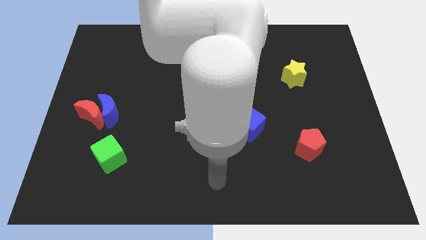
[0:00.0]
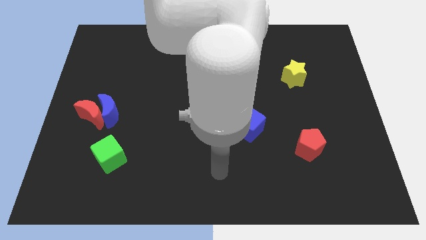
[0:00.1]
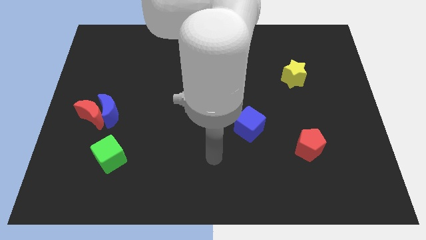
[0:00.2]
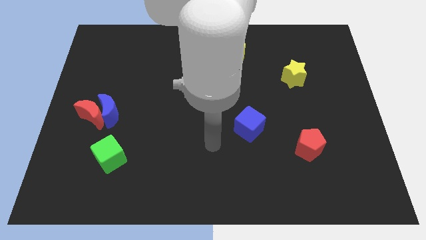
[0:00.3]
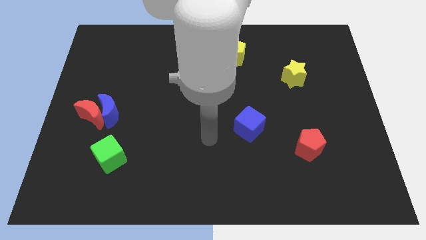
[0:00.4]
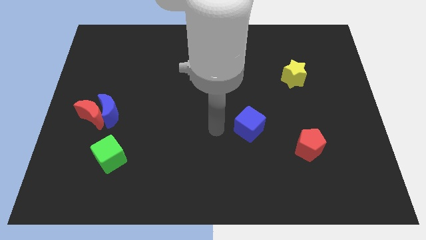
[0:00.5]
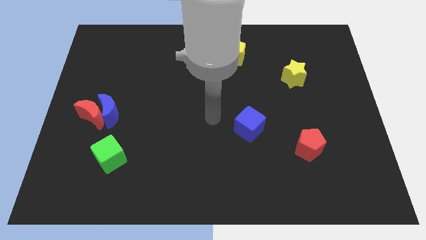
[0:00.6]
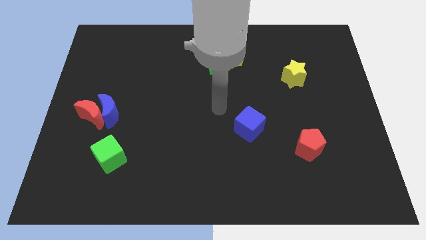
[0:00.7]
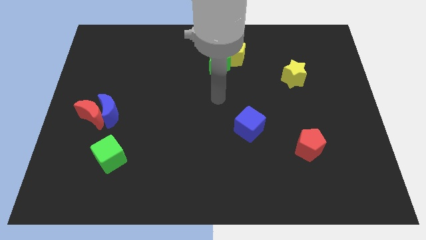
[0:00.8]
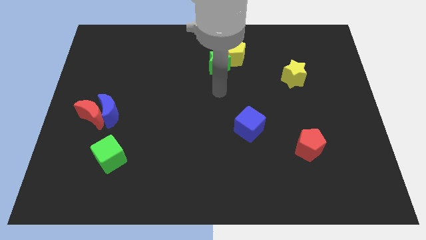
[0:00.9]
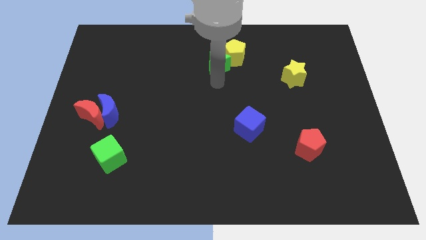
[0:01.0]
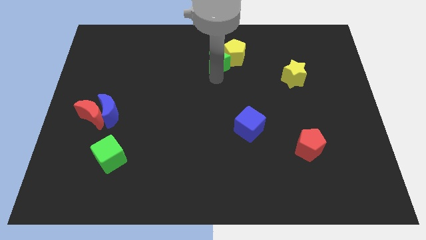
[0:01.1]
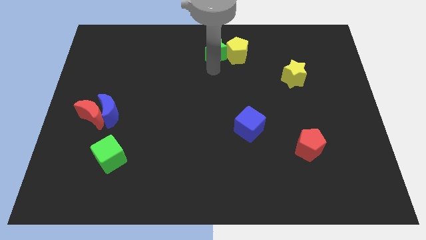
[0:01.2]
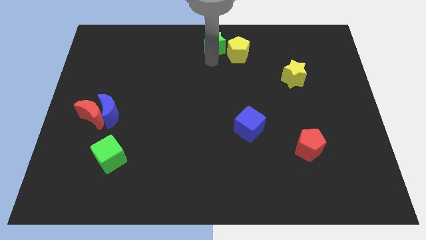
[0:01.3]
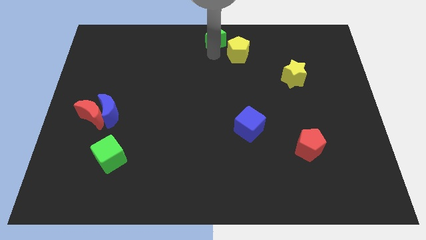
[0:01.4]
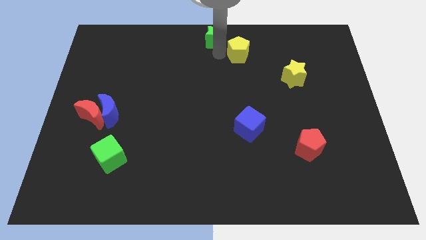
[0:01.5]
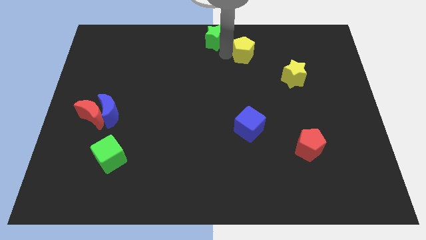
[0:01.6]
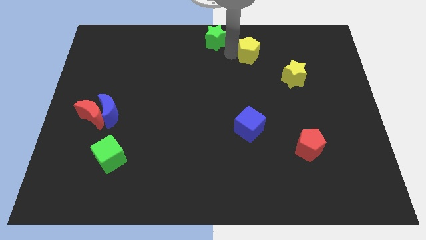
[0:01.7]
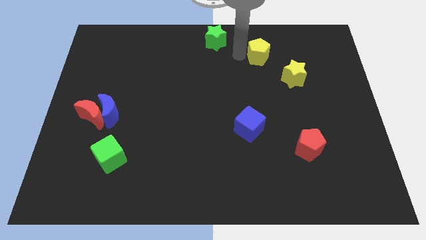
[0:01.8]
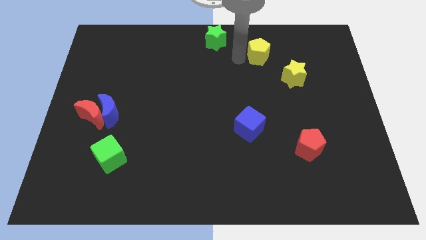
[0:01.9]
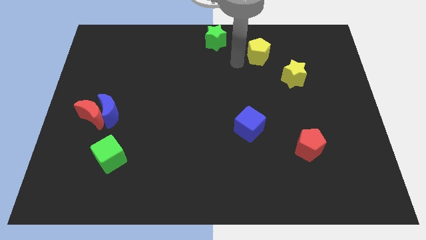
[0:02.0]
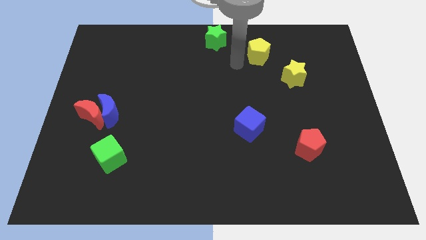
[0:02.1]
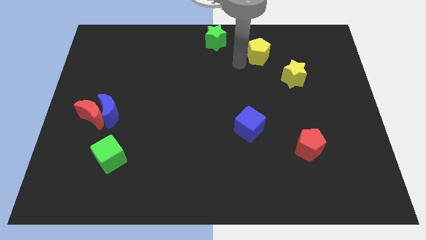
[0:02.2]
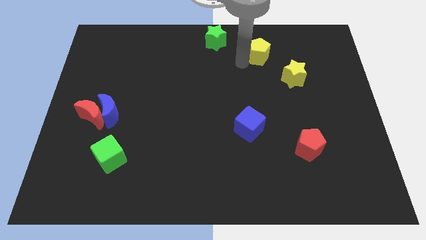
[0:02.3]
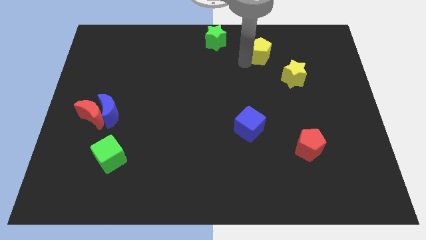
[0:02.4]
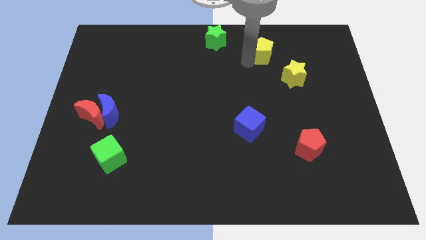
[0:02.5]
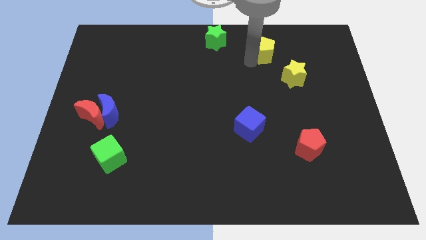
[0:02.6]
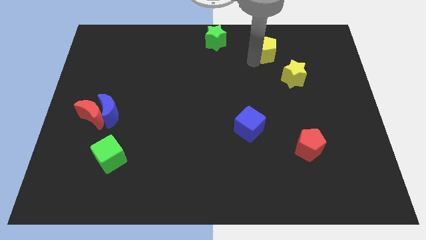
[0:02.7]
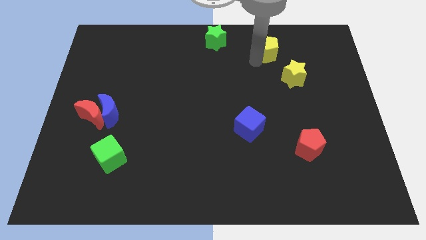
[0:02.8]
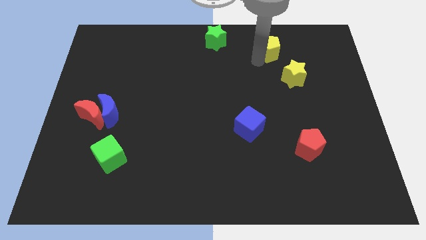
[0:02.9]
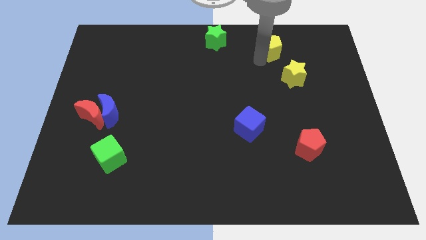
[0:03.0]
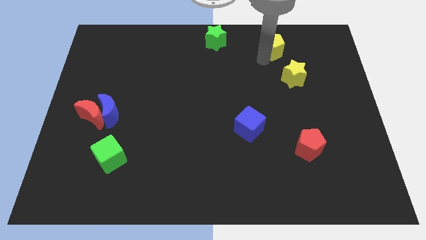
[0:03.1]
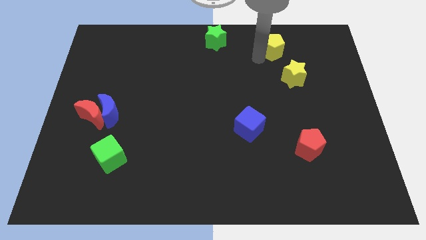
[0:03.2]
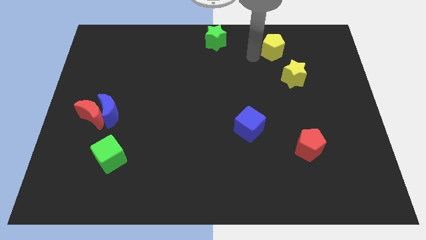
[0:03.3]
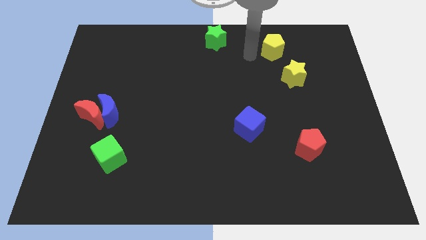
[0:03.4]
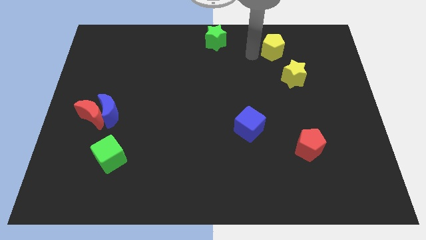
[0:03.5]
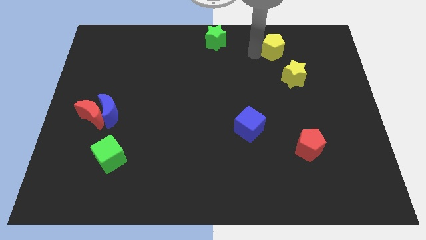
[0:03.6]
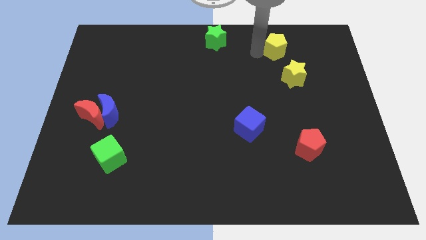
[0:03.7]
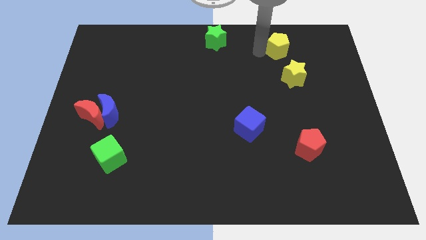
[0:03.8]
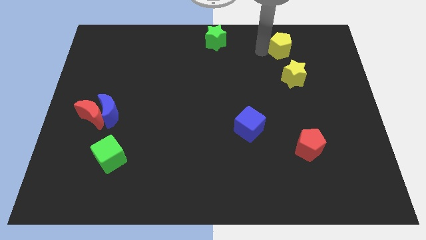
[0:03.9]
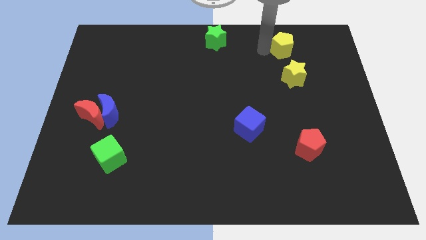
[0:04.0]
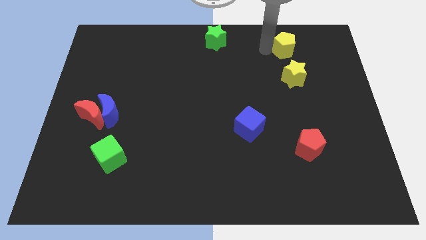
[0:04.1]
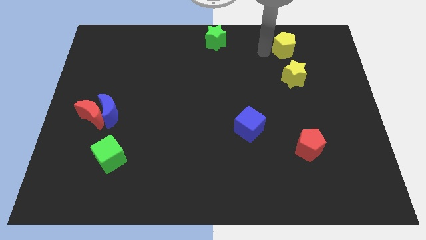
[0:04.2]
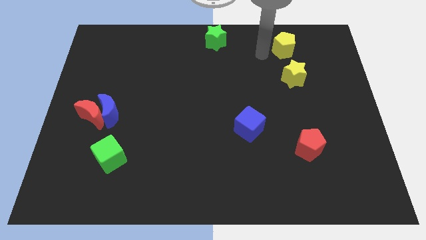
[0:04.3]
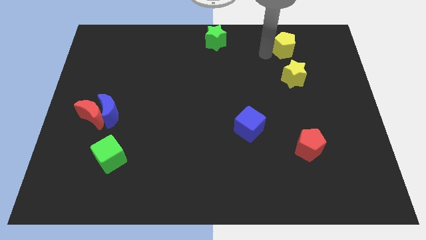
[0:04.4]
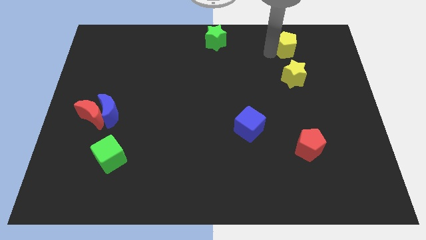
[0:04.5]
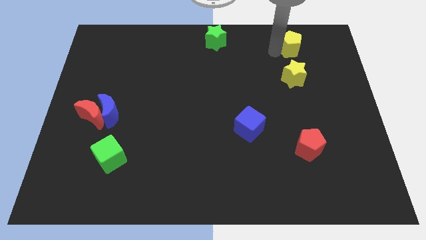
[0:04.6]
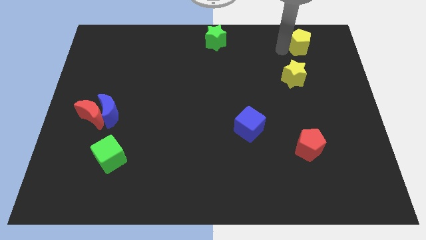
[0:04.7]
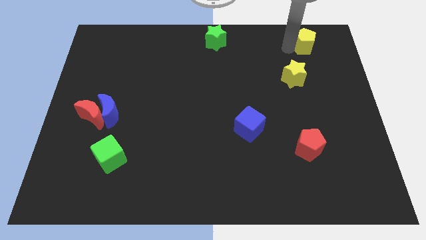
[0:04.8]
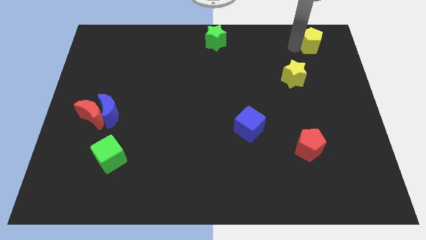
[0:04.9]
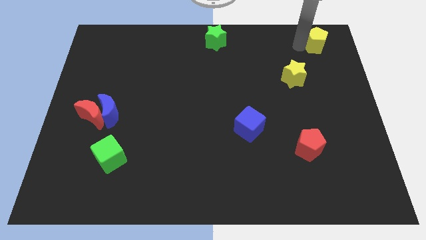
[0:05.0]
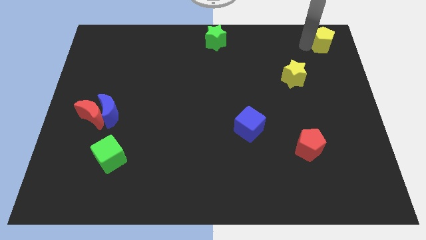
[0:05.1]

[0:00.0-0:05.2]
put the yellow pentagon to the top right

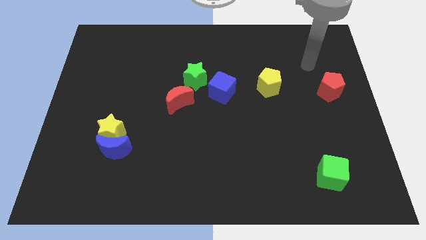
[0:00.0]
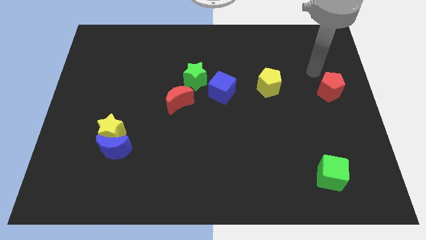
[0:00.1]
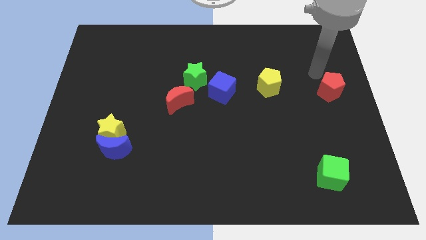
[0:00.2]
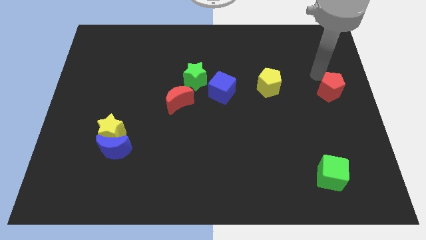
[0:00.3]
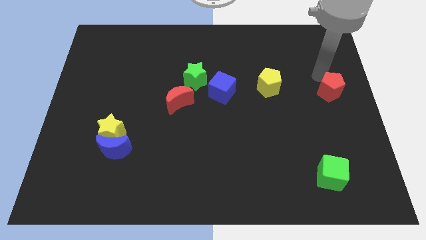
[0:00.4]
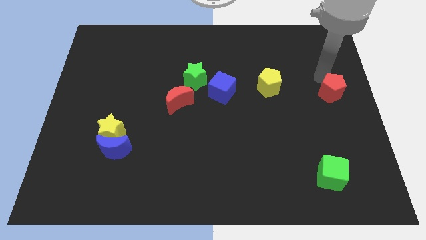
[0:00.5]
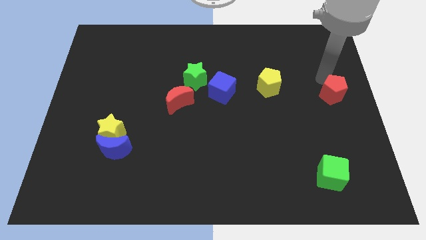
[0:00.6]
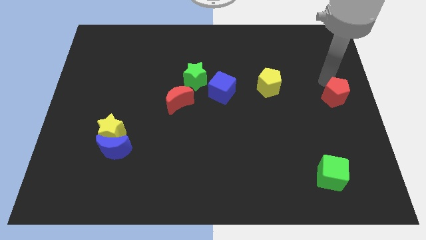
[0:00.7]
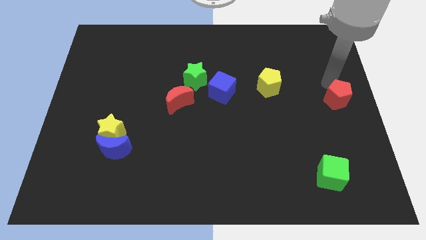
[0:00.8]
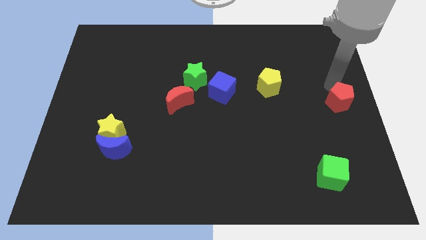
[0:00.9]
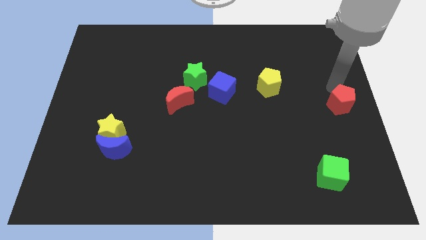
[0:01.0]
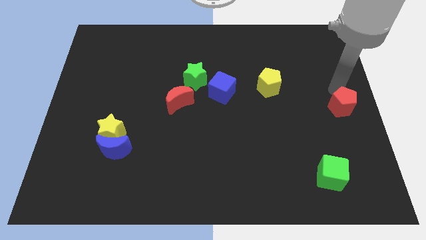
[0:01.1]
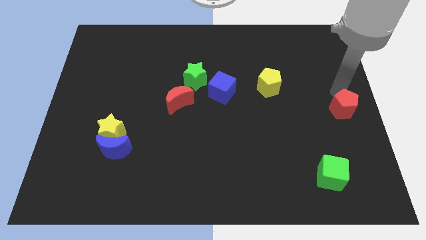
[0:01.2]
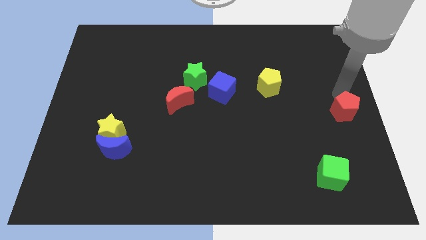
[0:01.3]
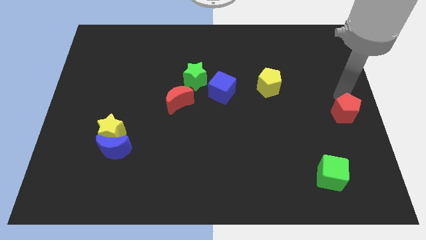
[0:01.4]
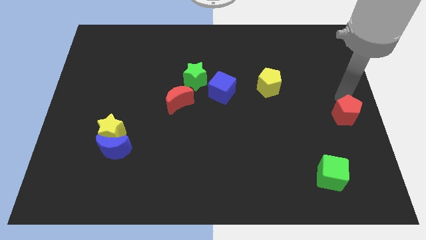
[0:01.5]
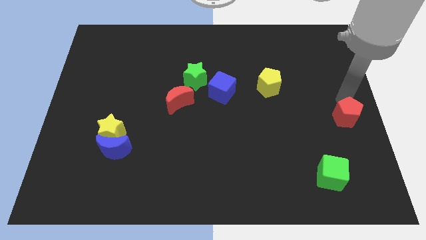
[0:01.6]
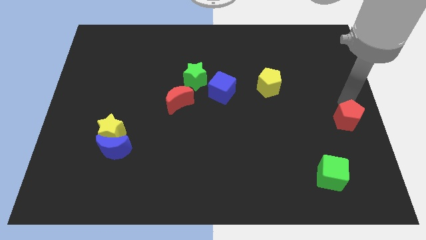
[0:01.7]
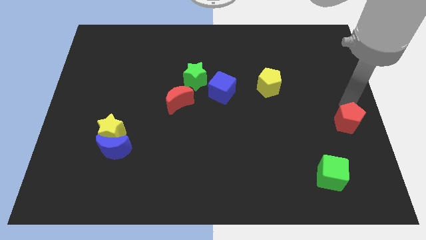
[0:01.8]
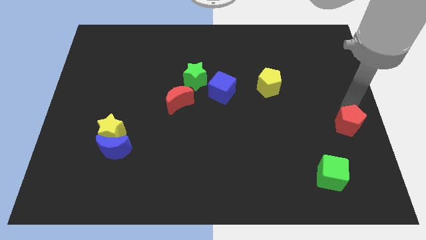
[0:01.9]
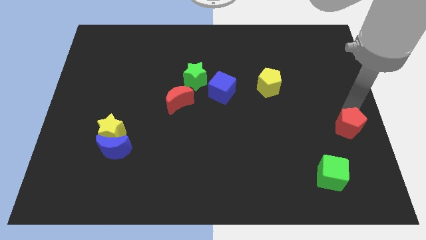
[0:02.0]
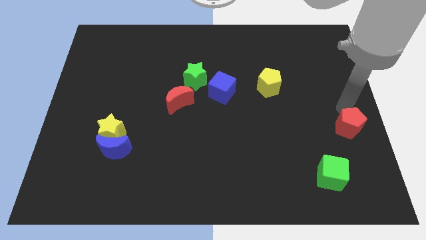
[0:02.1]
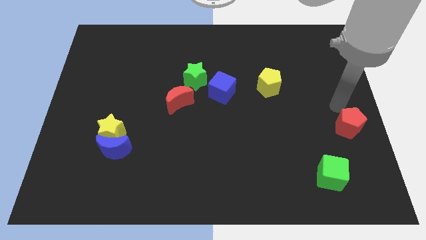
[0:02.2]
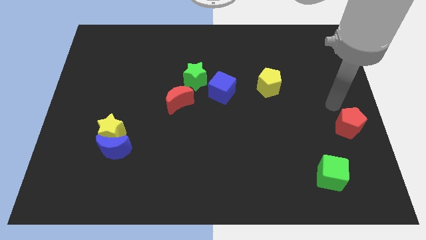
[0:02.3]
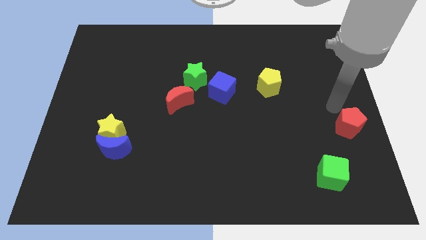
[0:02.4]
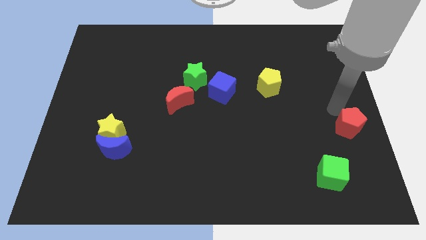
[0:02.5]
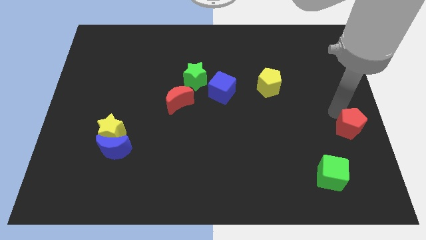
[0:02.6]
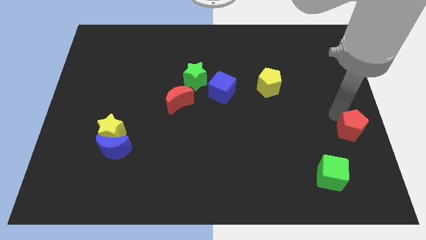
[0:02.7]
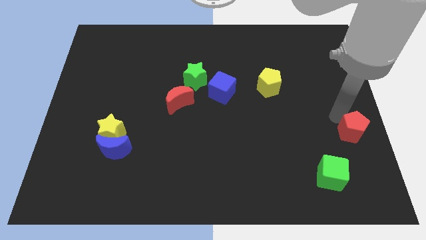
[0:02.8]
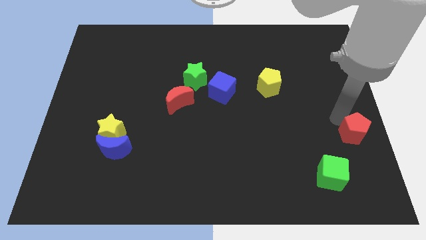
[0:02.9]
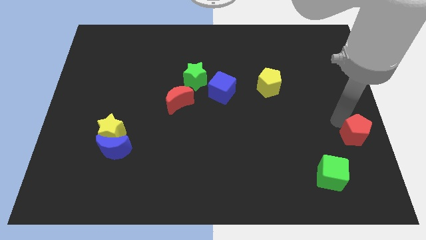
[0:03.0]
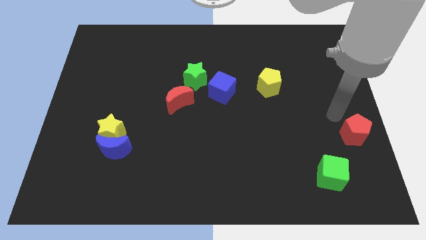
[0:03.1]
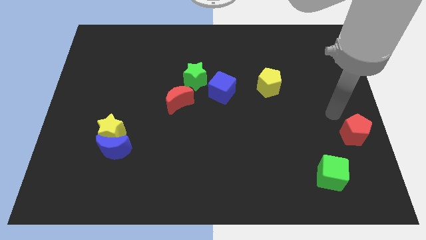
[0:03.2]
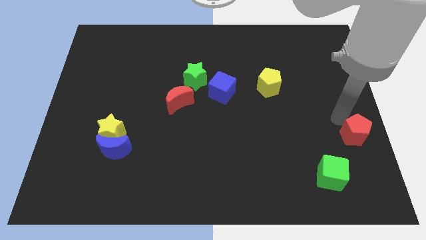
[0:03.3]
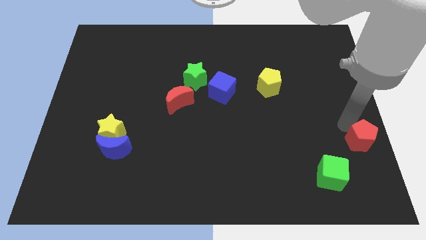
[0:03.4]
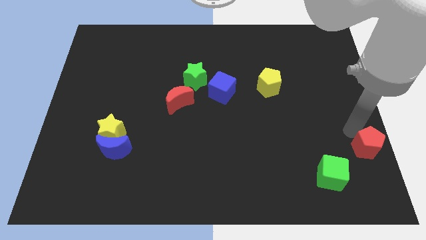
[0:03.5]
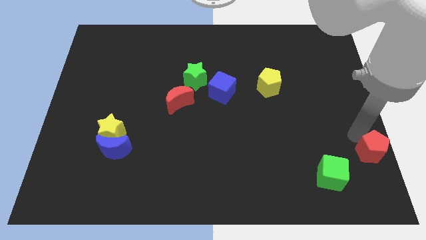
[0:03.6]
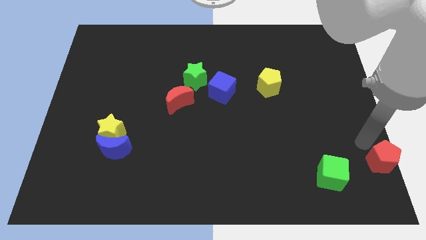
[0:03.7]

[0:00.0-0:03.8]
slide the red pentagon to the bottom right of the board
